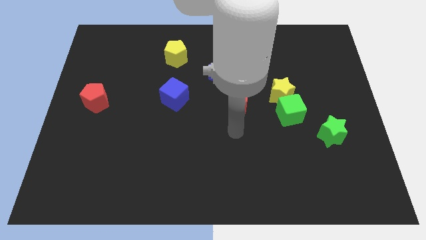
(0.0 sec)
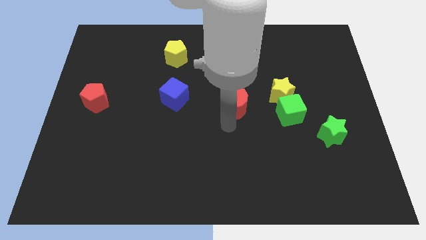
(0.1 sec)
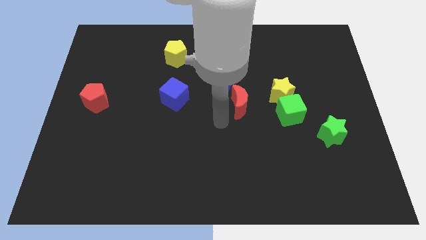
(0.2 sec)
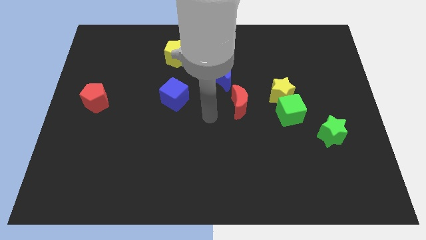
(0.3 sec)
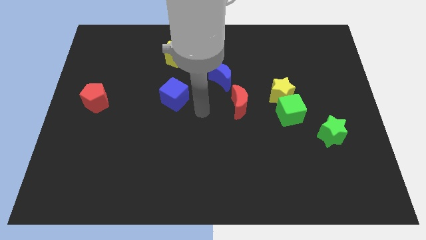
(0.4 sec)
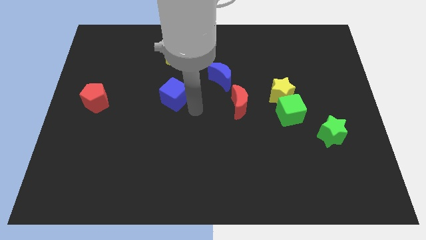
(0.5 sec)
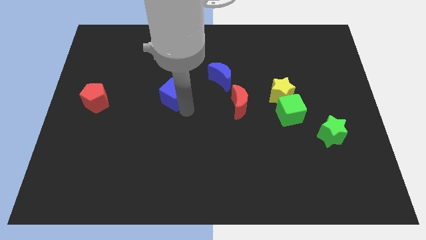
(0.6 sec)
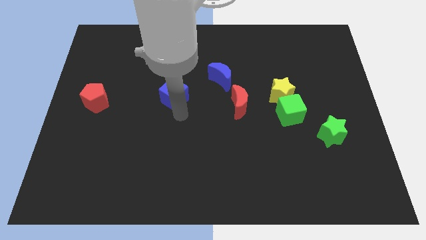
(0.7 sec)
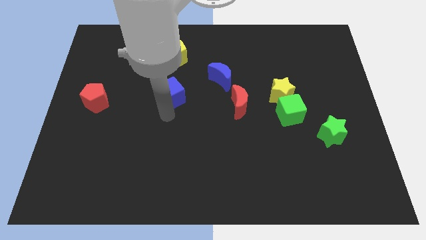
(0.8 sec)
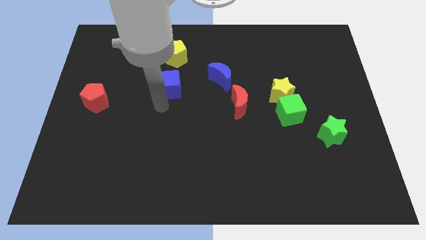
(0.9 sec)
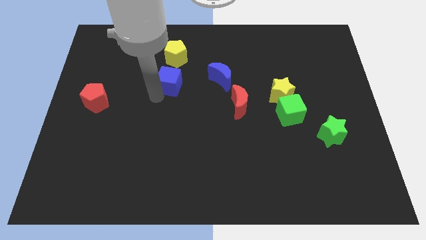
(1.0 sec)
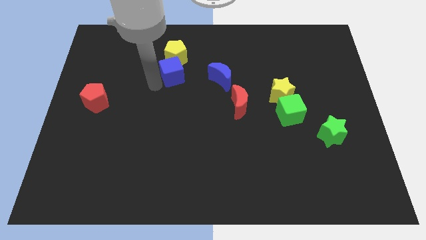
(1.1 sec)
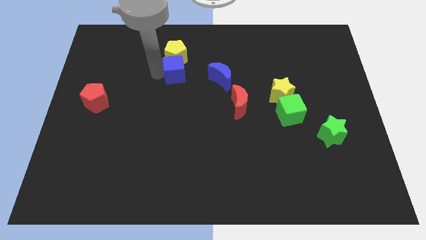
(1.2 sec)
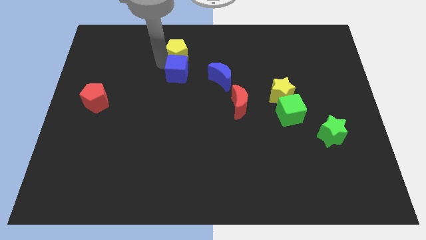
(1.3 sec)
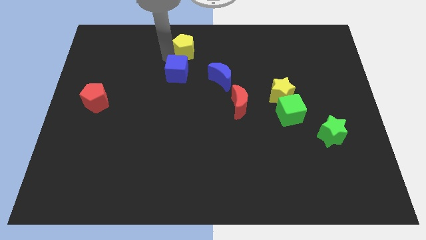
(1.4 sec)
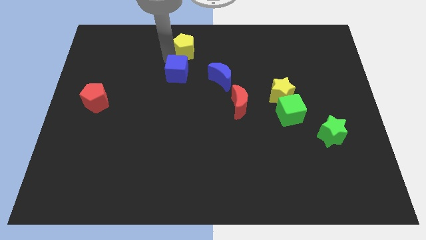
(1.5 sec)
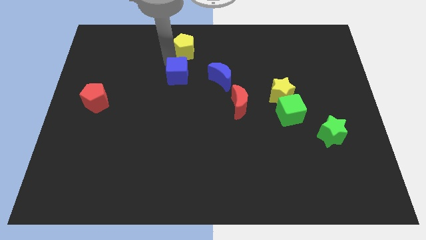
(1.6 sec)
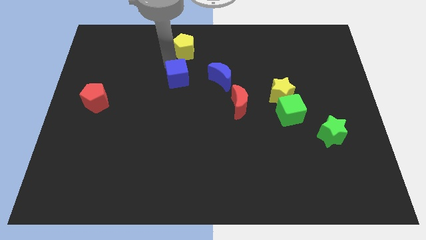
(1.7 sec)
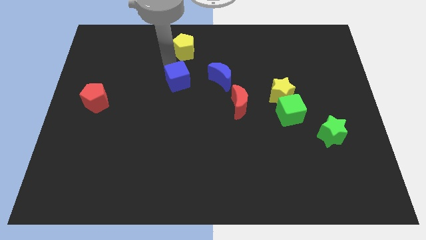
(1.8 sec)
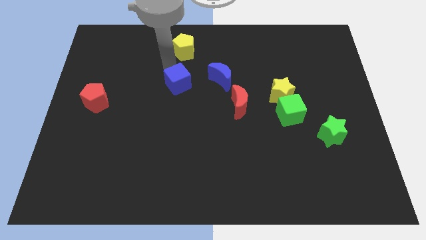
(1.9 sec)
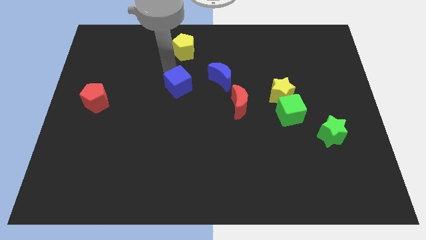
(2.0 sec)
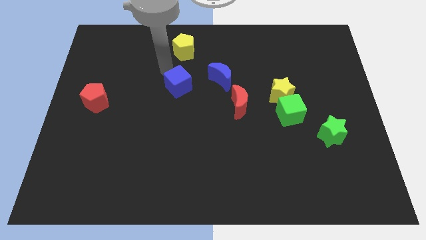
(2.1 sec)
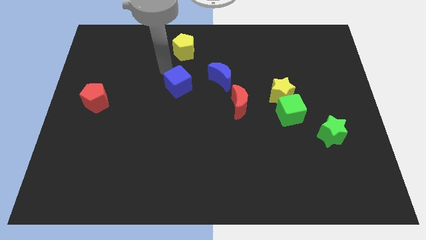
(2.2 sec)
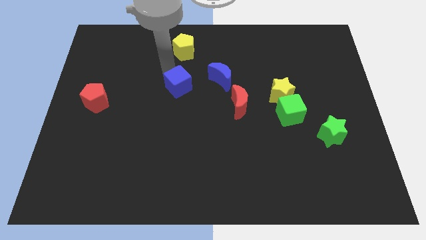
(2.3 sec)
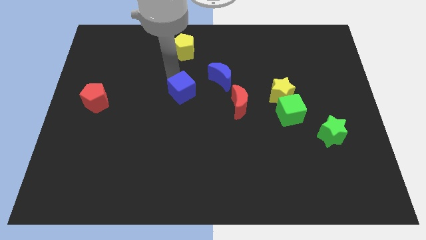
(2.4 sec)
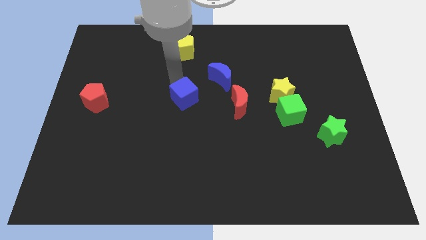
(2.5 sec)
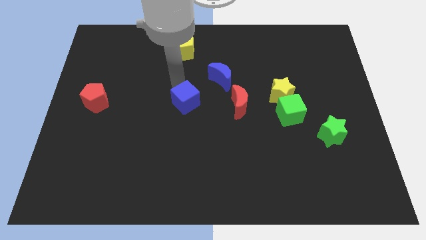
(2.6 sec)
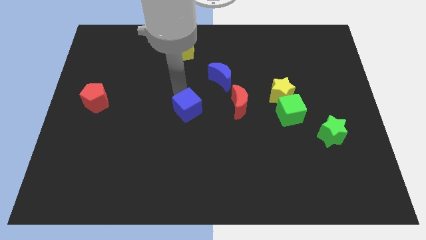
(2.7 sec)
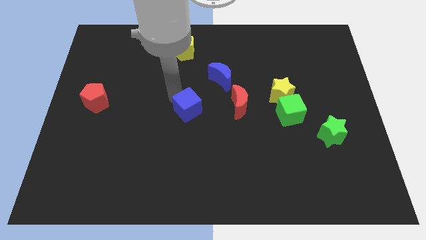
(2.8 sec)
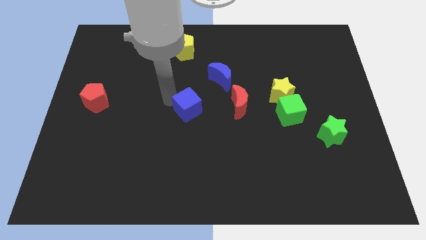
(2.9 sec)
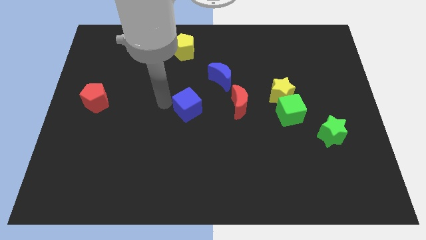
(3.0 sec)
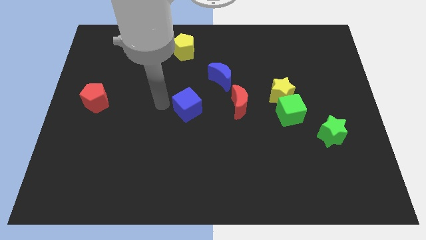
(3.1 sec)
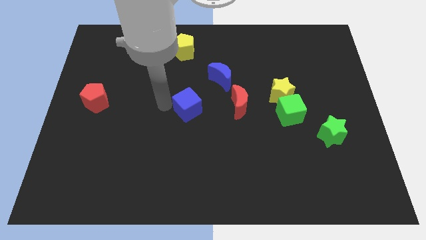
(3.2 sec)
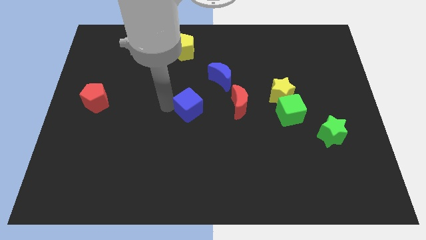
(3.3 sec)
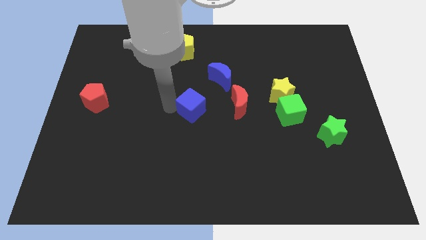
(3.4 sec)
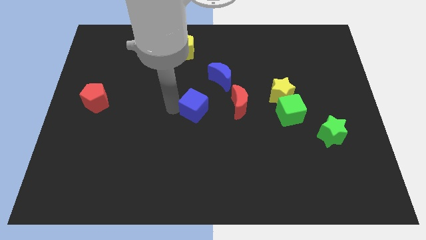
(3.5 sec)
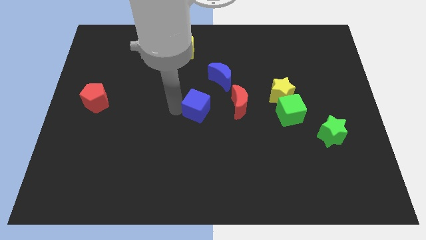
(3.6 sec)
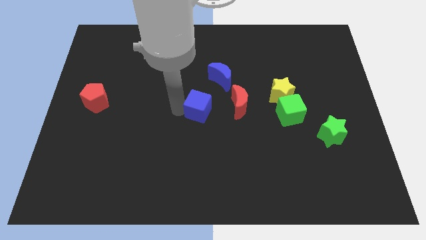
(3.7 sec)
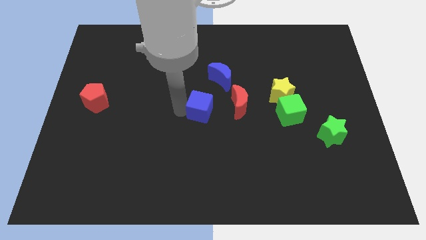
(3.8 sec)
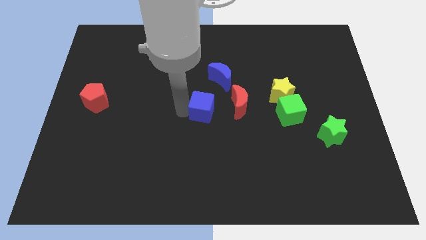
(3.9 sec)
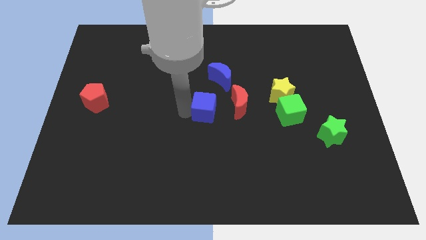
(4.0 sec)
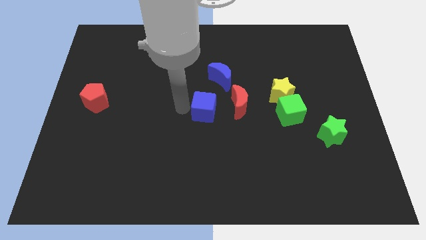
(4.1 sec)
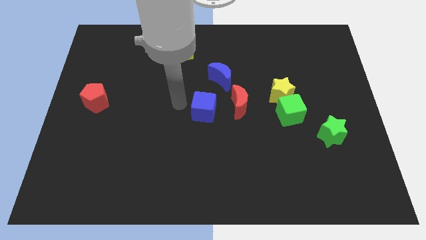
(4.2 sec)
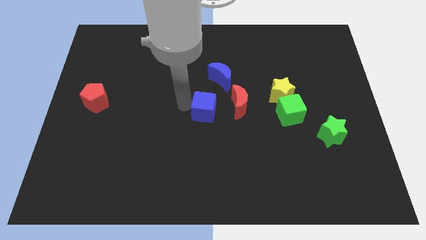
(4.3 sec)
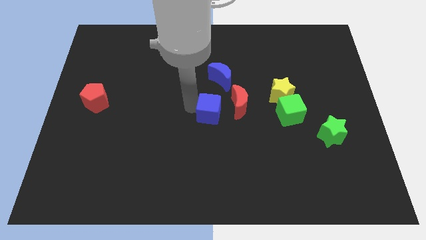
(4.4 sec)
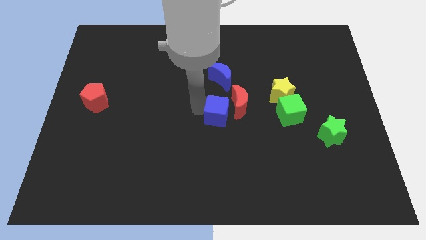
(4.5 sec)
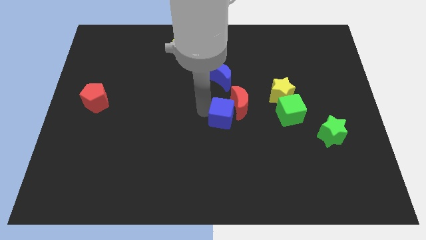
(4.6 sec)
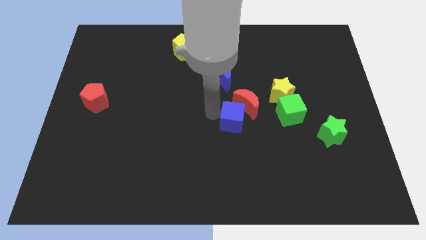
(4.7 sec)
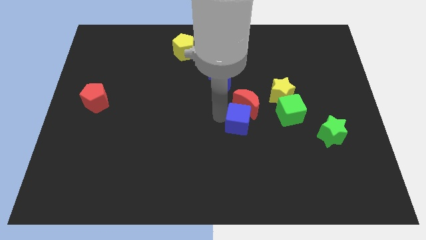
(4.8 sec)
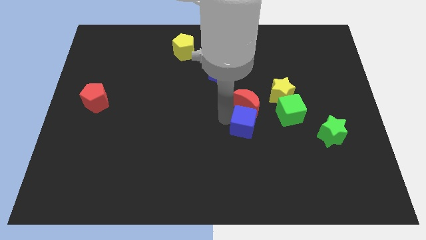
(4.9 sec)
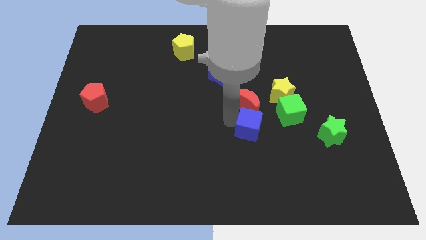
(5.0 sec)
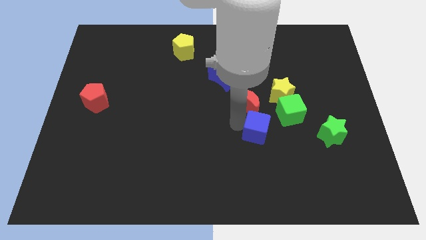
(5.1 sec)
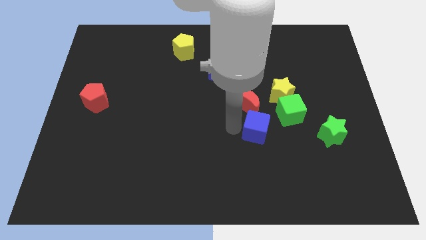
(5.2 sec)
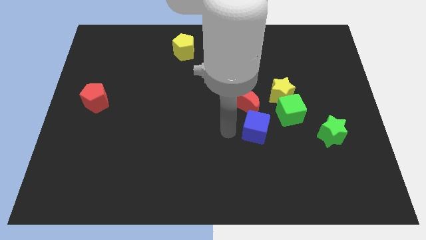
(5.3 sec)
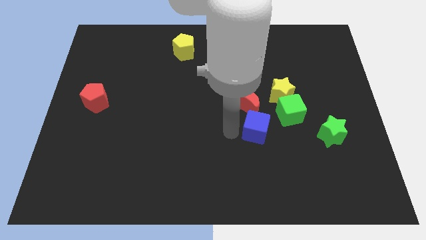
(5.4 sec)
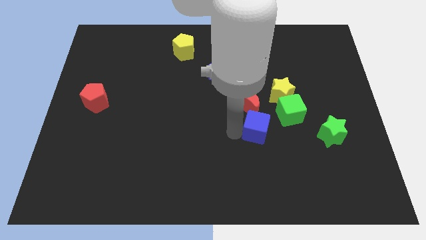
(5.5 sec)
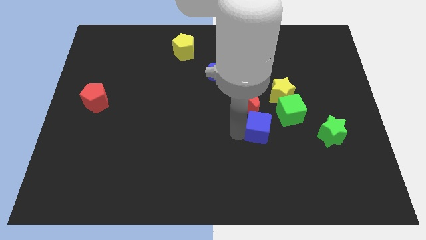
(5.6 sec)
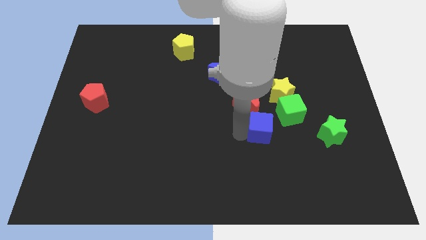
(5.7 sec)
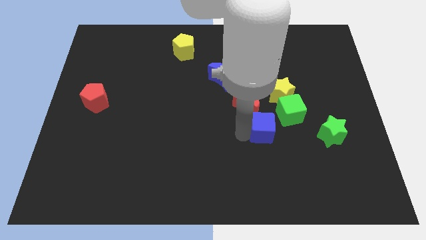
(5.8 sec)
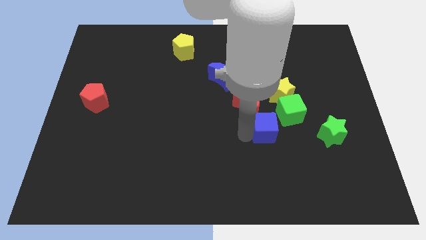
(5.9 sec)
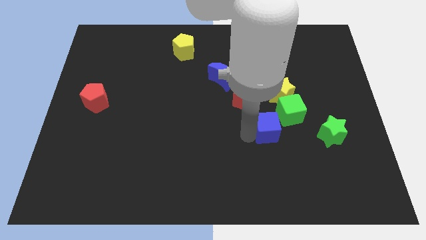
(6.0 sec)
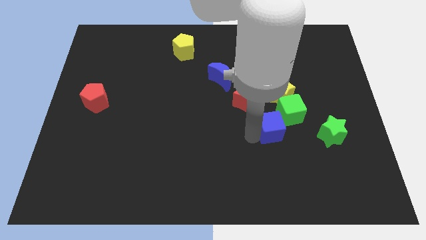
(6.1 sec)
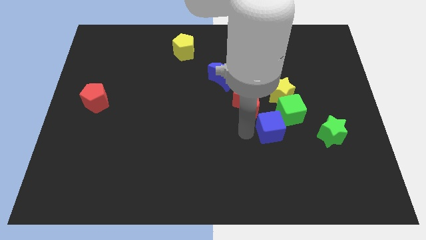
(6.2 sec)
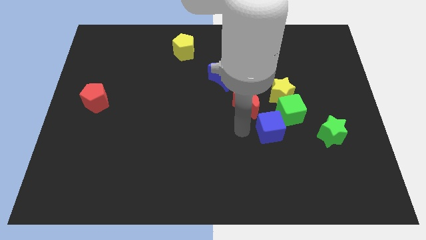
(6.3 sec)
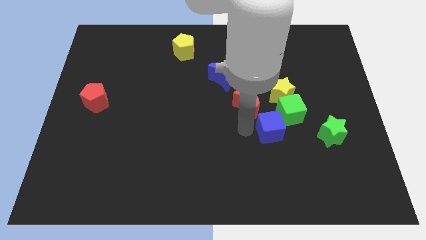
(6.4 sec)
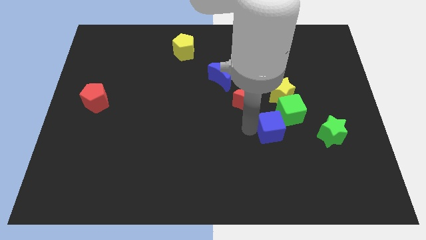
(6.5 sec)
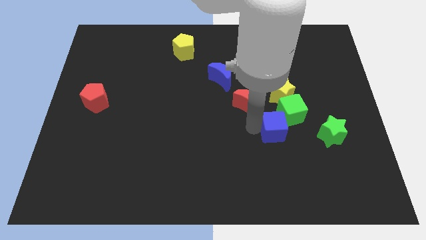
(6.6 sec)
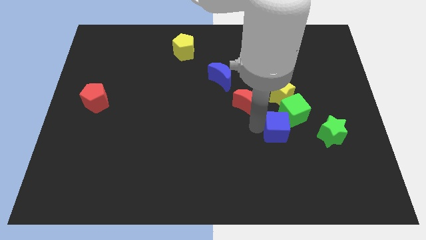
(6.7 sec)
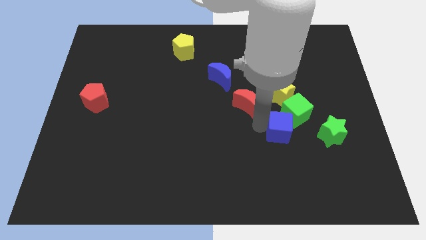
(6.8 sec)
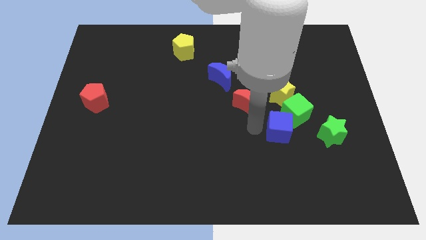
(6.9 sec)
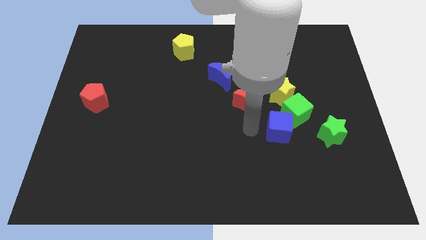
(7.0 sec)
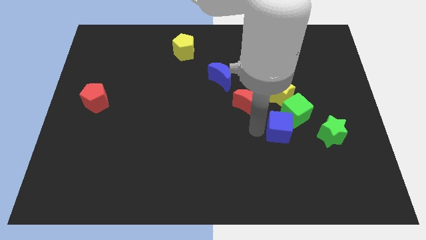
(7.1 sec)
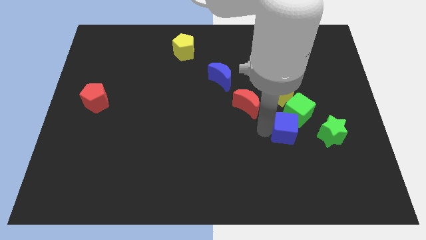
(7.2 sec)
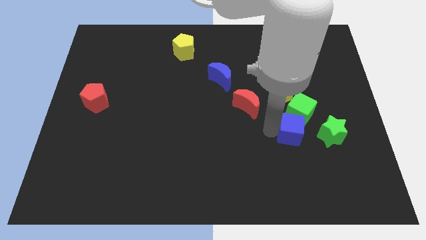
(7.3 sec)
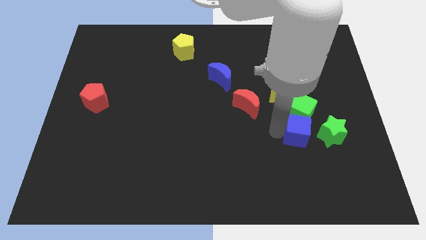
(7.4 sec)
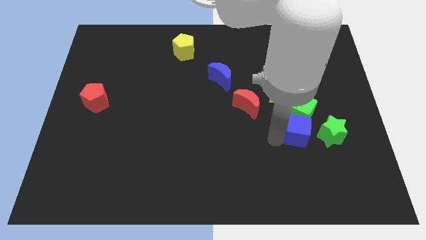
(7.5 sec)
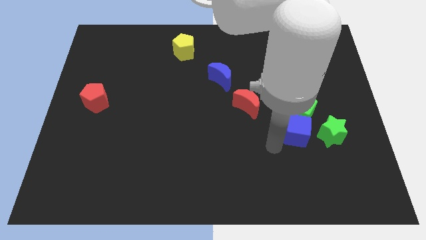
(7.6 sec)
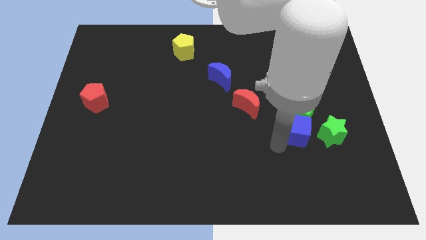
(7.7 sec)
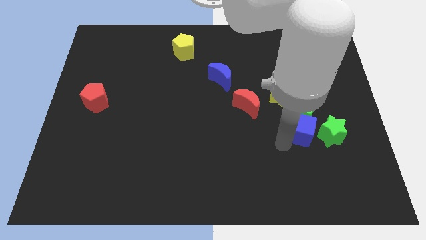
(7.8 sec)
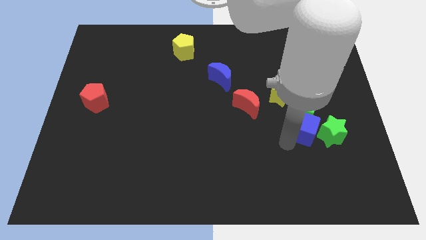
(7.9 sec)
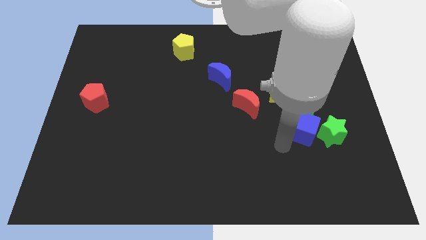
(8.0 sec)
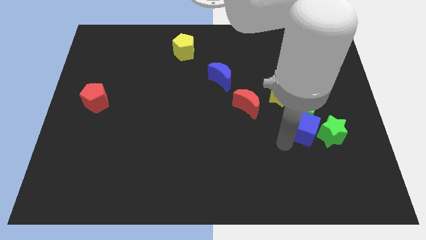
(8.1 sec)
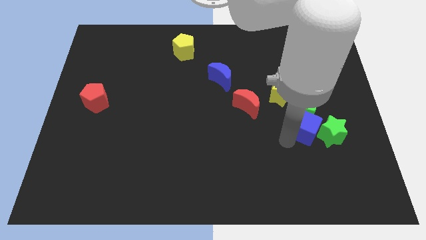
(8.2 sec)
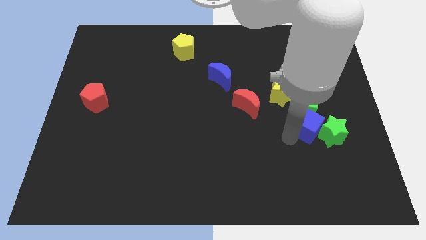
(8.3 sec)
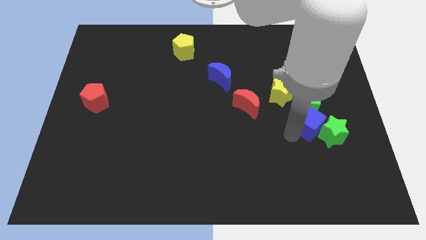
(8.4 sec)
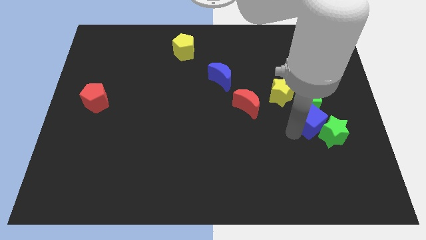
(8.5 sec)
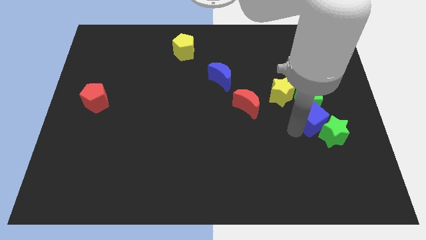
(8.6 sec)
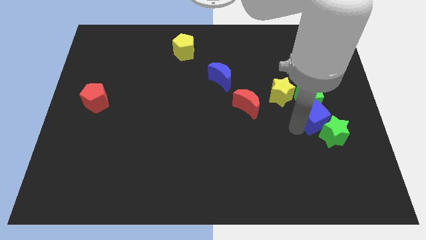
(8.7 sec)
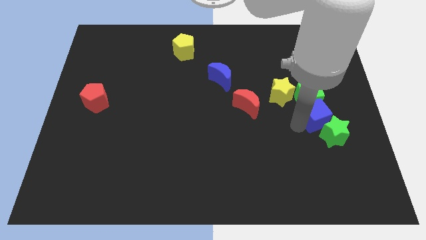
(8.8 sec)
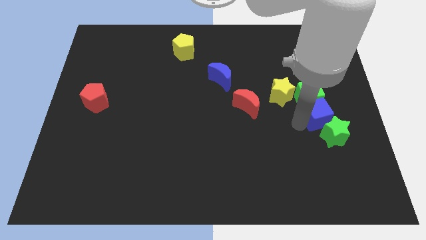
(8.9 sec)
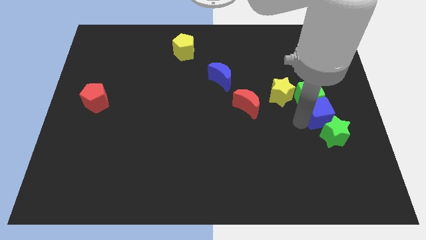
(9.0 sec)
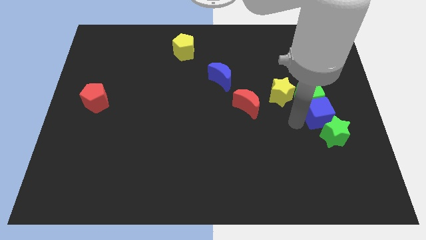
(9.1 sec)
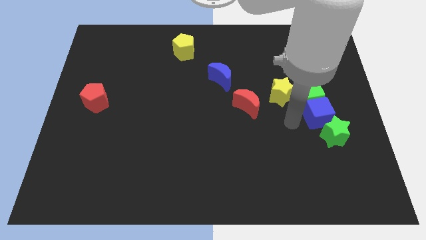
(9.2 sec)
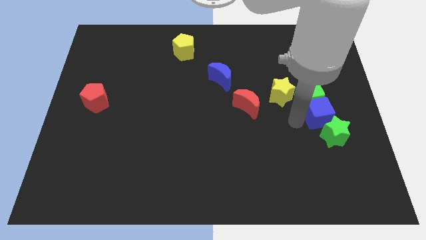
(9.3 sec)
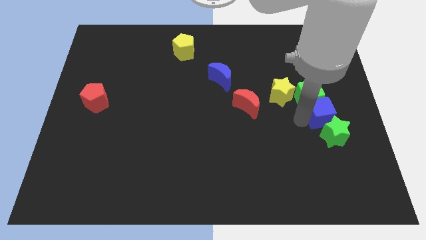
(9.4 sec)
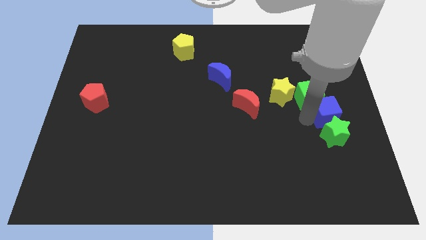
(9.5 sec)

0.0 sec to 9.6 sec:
move the blue cube to the center right
